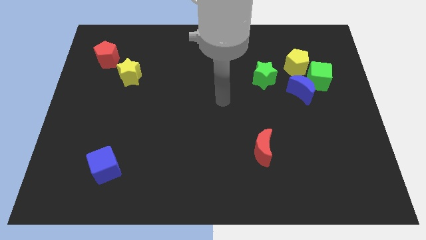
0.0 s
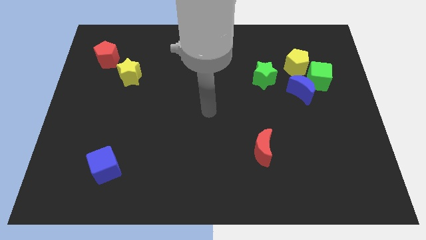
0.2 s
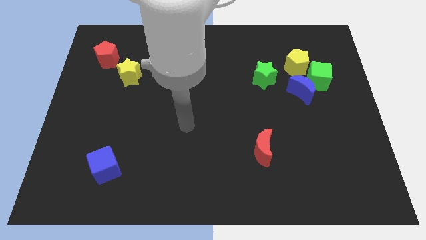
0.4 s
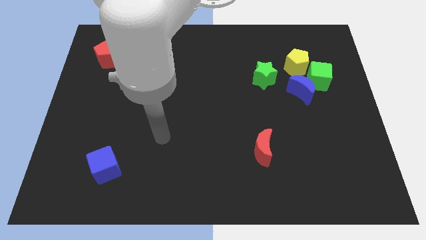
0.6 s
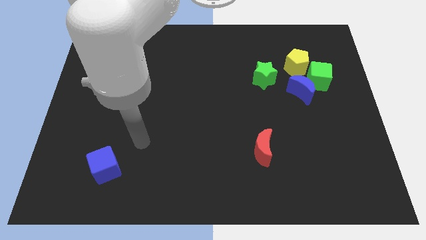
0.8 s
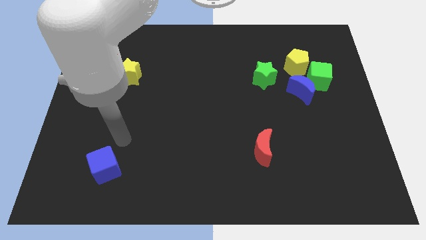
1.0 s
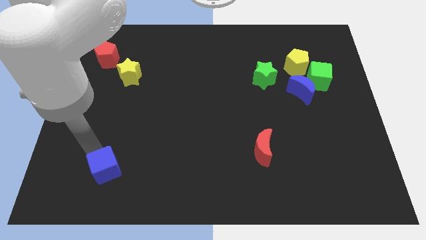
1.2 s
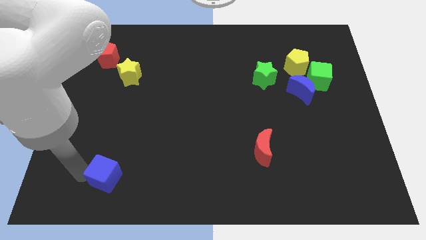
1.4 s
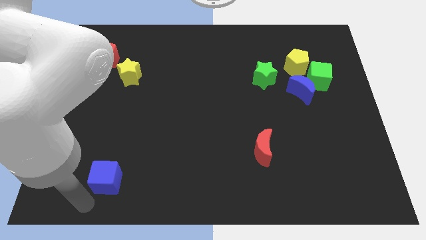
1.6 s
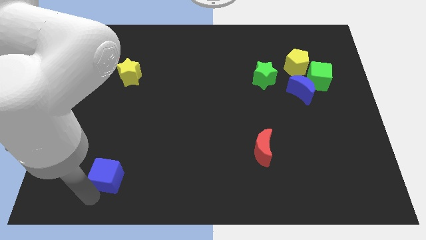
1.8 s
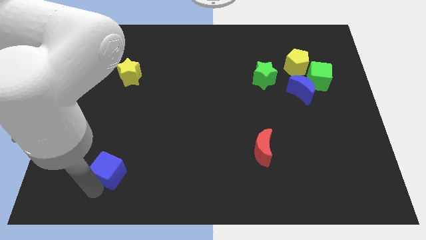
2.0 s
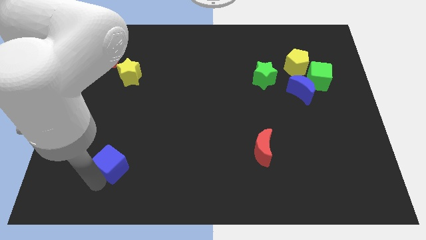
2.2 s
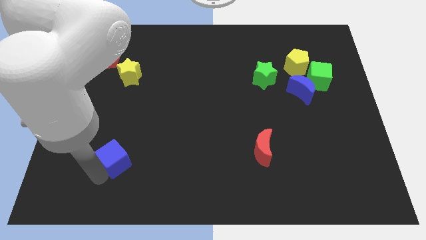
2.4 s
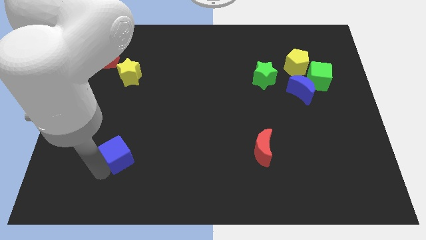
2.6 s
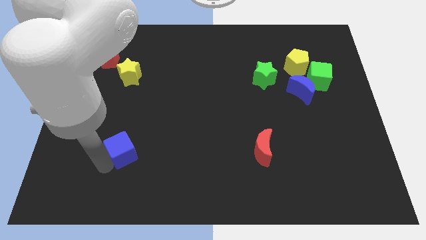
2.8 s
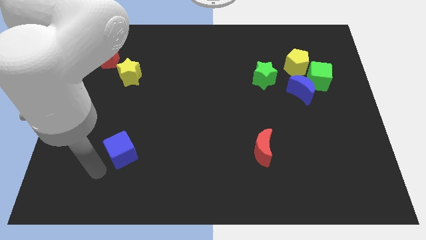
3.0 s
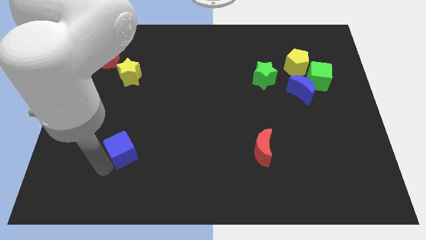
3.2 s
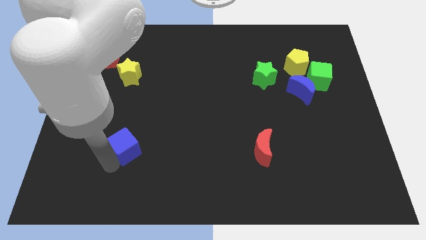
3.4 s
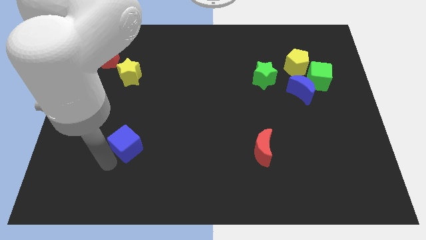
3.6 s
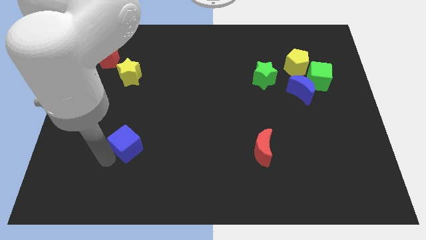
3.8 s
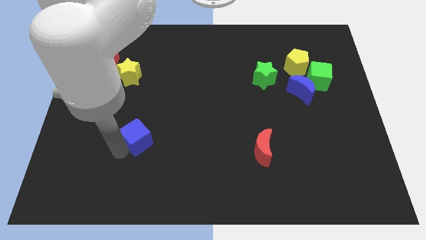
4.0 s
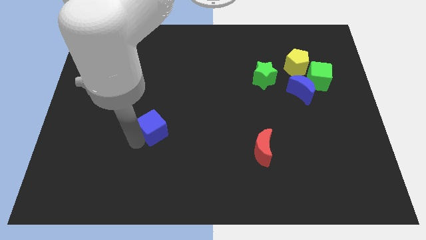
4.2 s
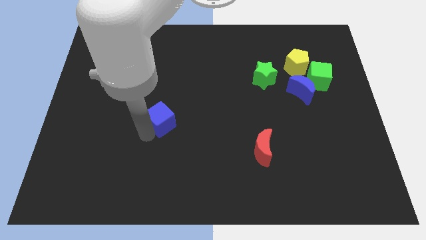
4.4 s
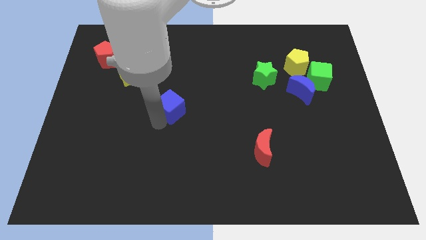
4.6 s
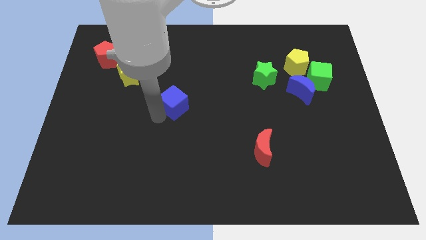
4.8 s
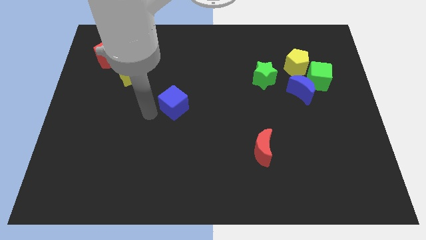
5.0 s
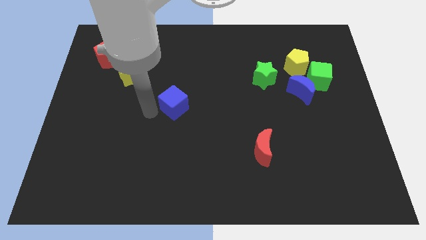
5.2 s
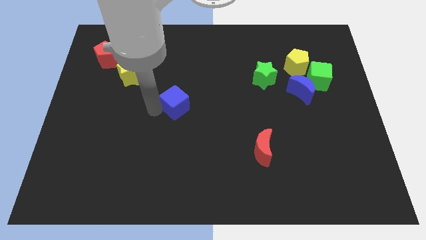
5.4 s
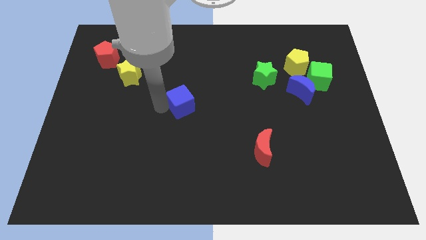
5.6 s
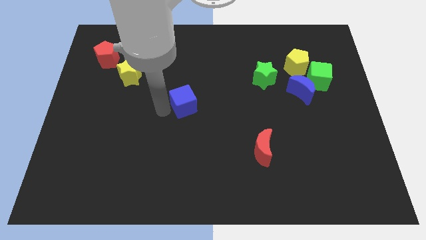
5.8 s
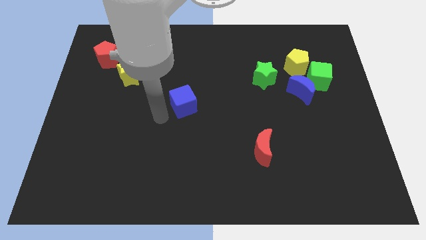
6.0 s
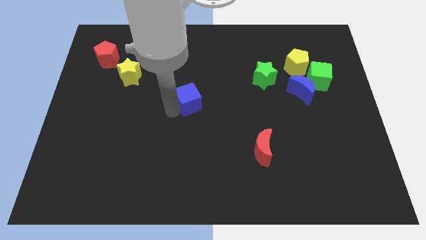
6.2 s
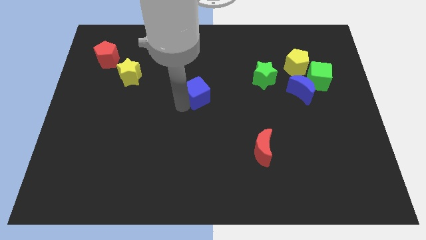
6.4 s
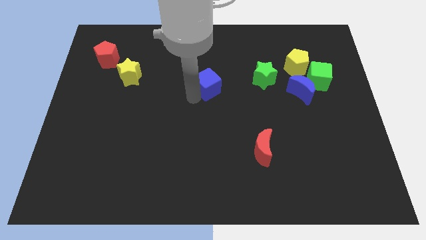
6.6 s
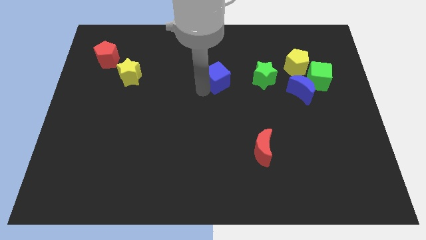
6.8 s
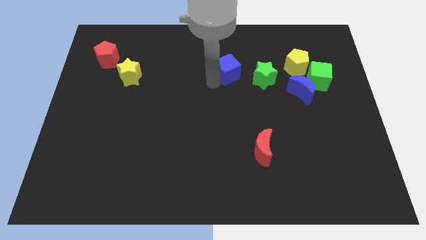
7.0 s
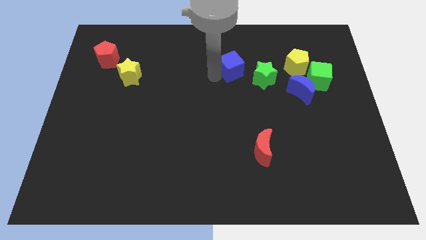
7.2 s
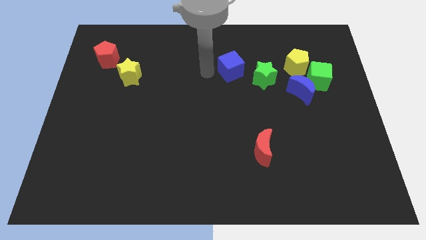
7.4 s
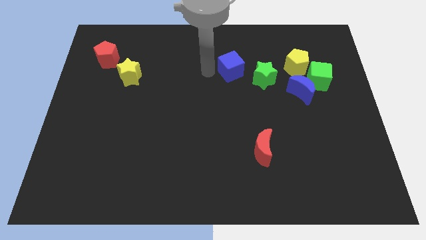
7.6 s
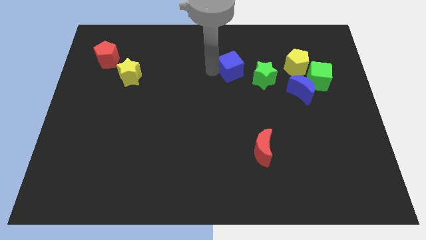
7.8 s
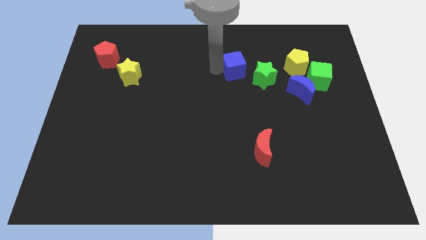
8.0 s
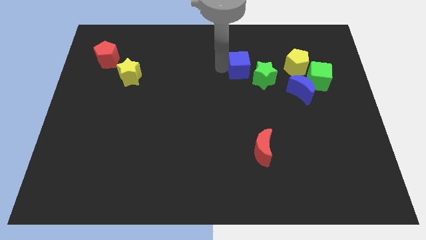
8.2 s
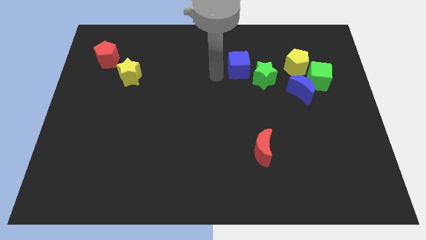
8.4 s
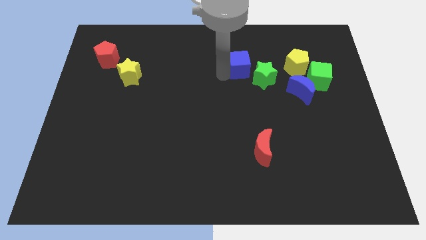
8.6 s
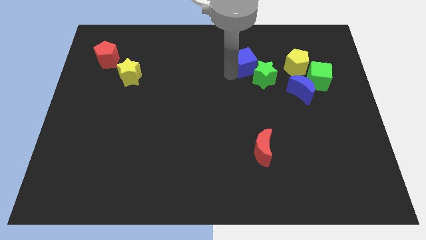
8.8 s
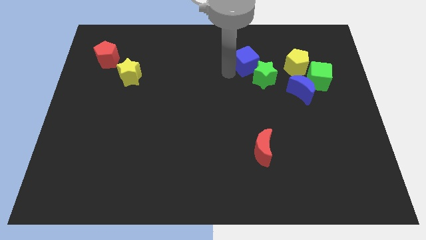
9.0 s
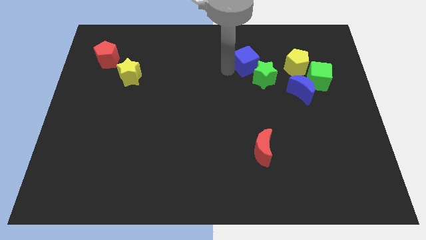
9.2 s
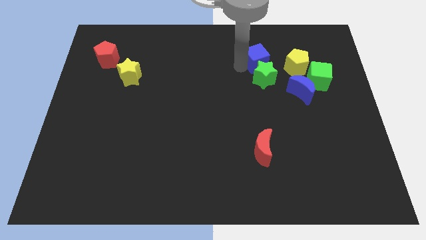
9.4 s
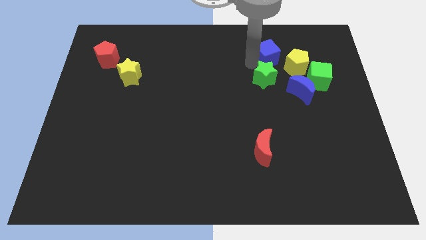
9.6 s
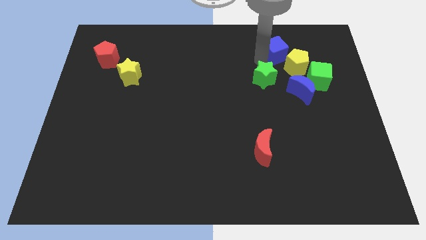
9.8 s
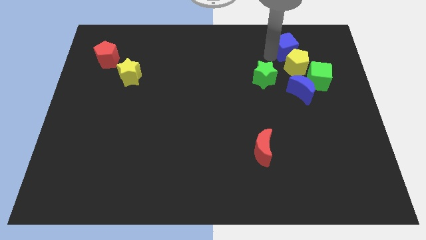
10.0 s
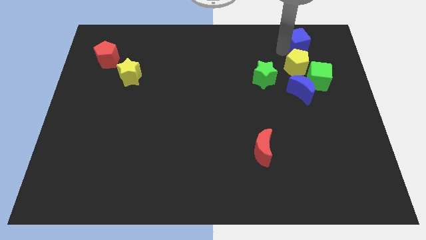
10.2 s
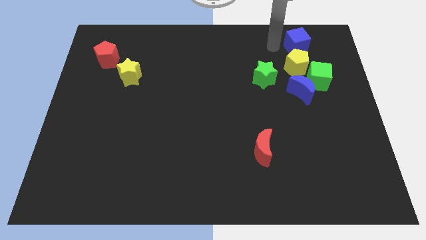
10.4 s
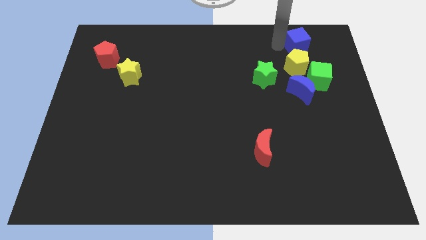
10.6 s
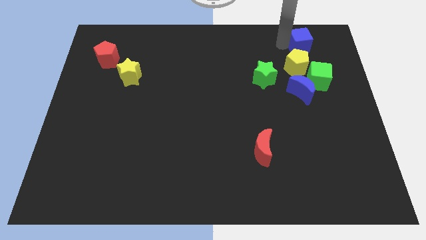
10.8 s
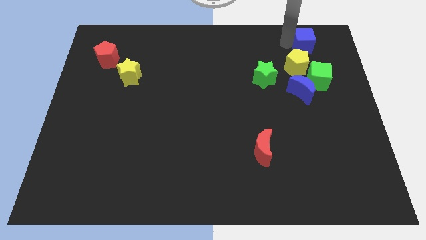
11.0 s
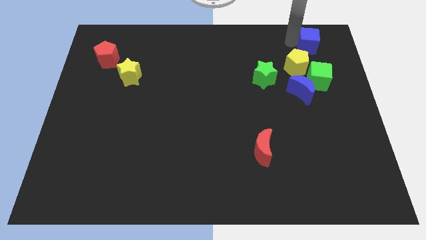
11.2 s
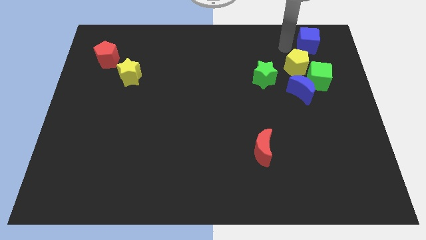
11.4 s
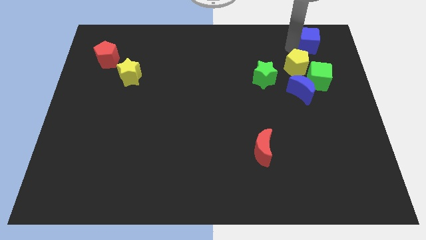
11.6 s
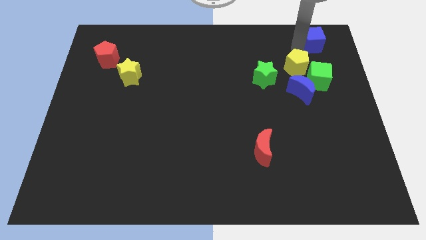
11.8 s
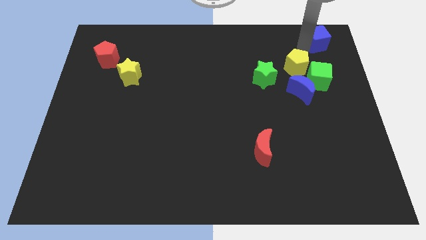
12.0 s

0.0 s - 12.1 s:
put the blue cube to the upper right corner
